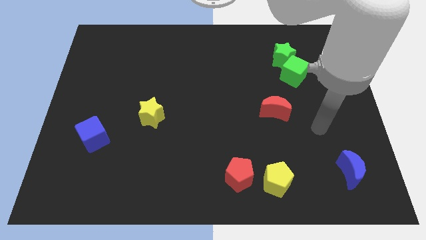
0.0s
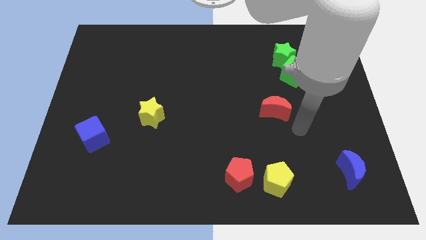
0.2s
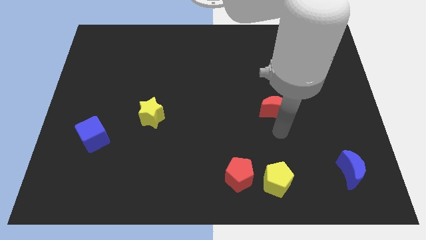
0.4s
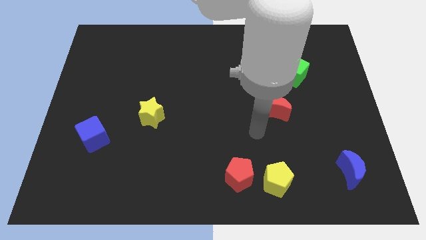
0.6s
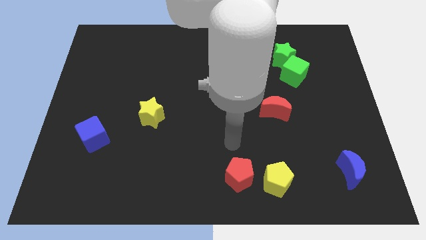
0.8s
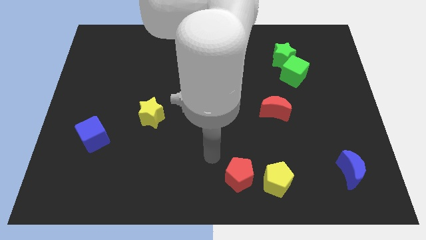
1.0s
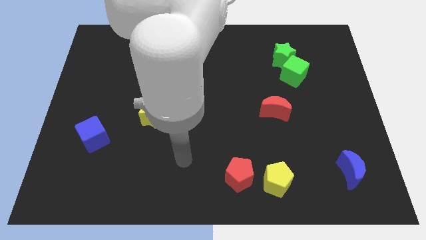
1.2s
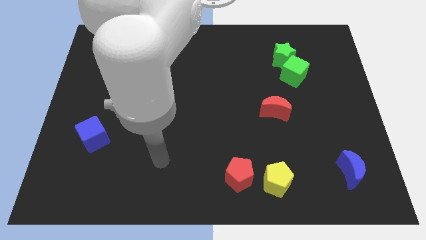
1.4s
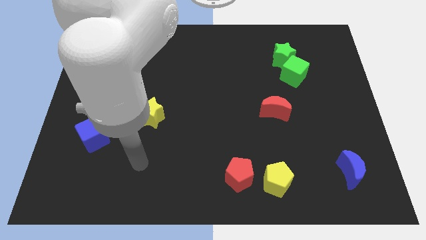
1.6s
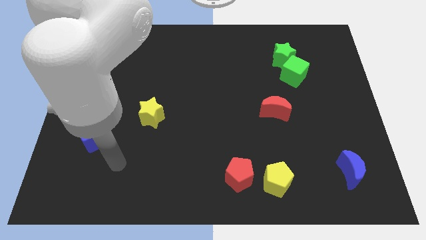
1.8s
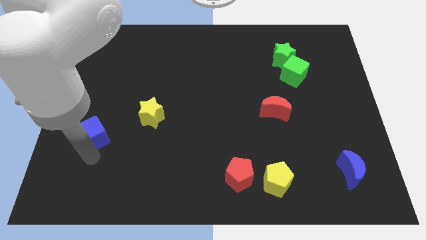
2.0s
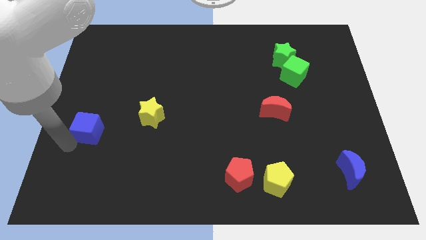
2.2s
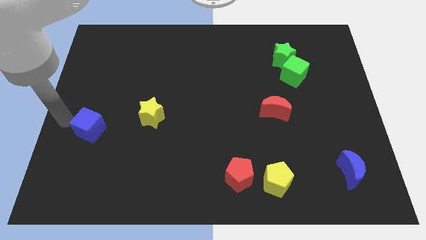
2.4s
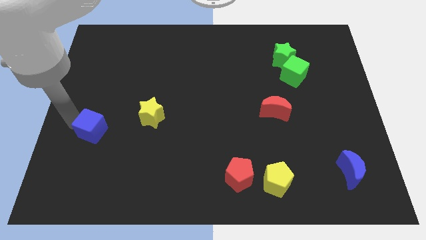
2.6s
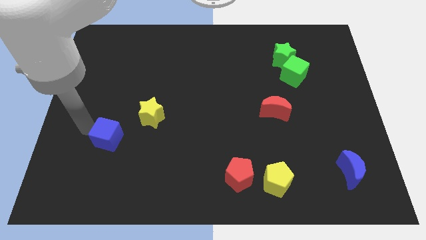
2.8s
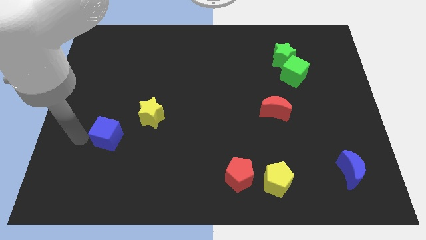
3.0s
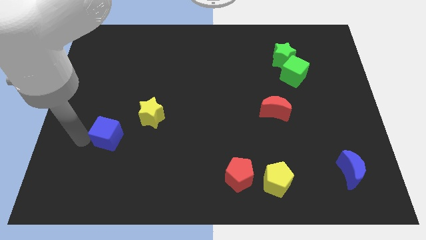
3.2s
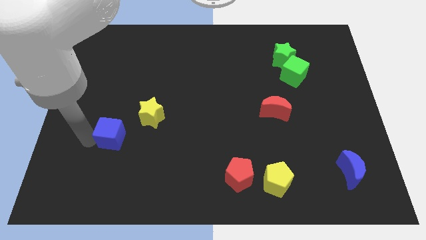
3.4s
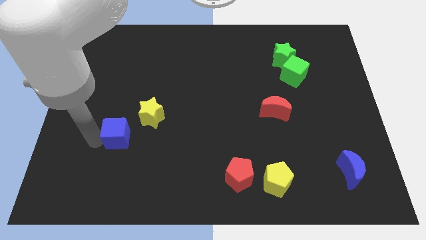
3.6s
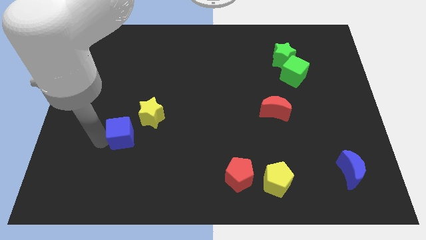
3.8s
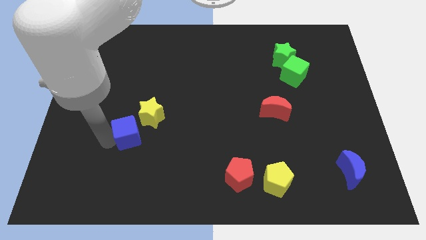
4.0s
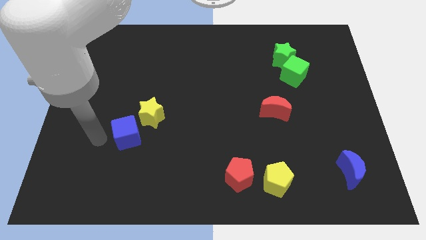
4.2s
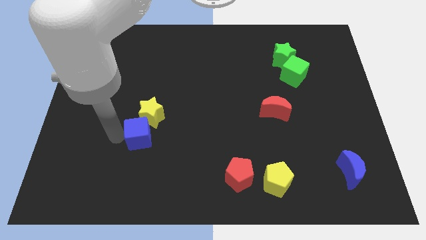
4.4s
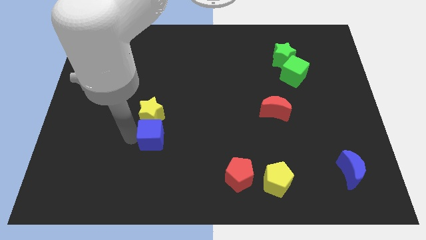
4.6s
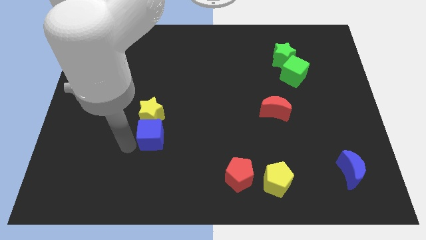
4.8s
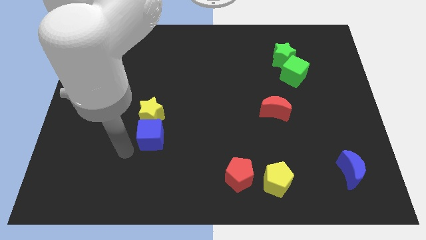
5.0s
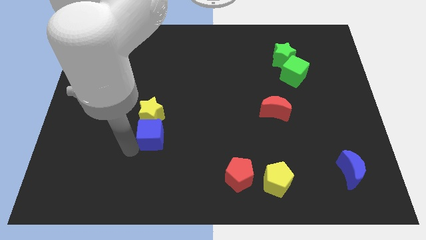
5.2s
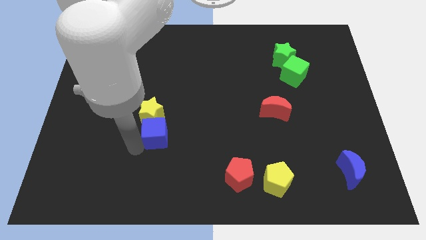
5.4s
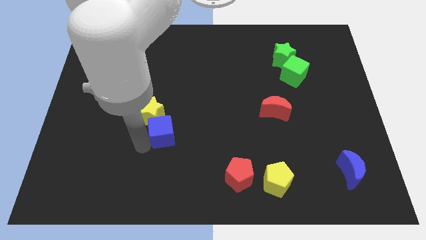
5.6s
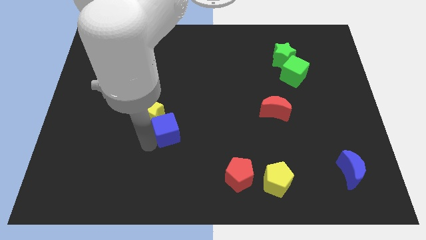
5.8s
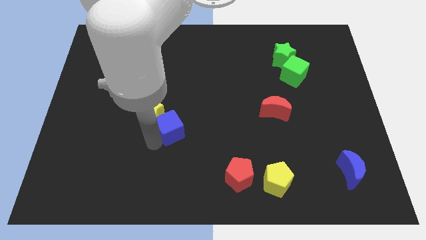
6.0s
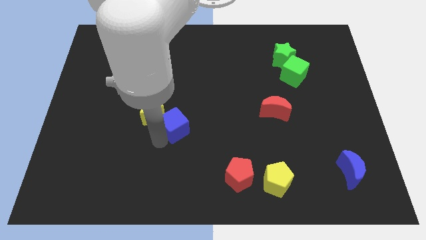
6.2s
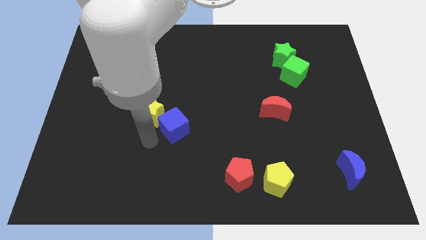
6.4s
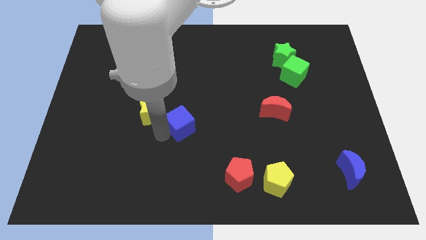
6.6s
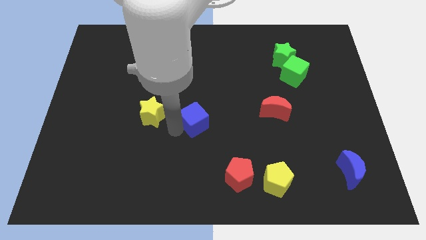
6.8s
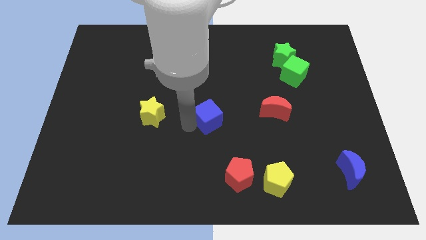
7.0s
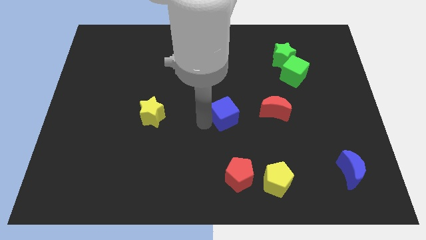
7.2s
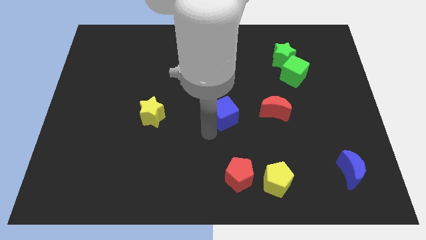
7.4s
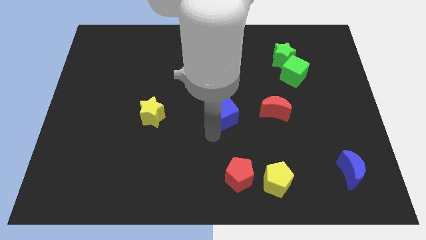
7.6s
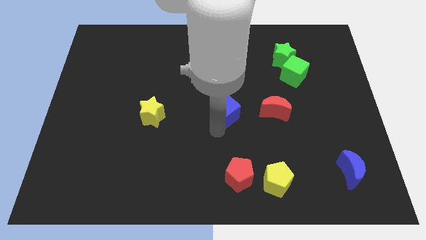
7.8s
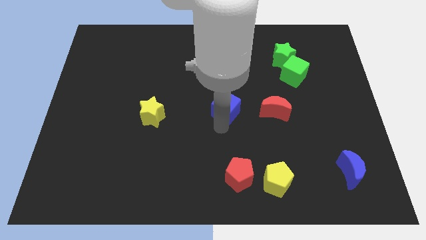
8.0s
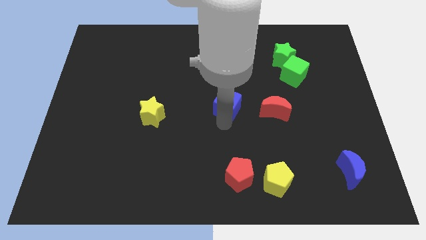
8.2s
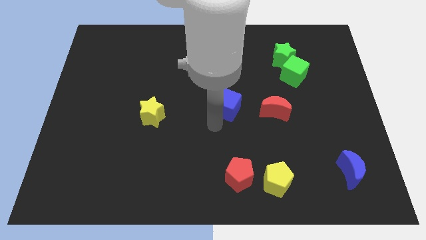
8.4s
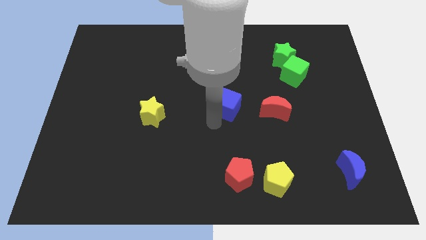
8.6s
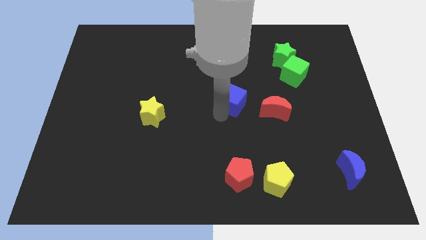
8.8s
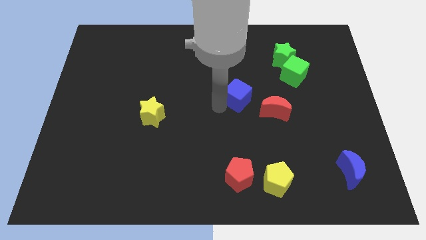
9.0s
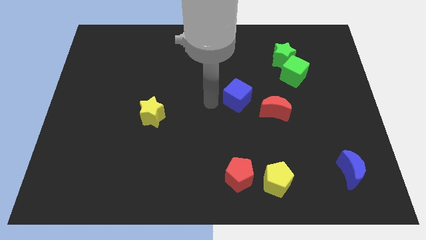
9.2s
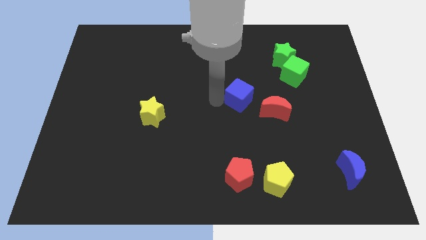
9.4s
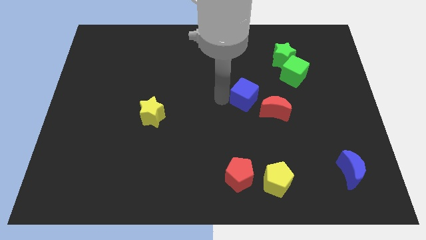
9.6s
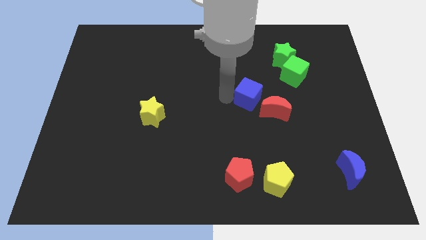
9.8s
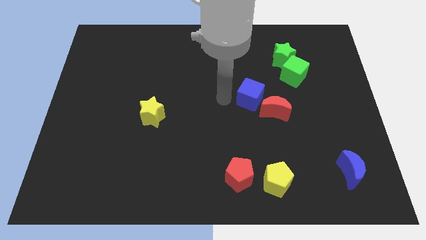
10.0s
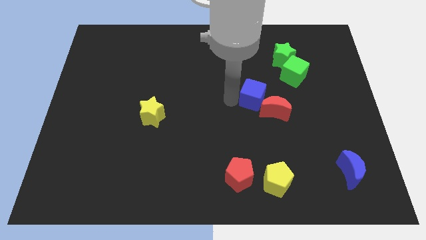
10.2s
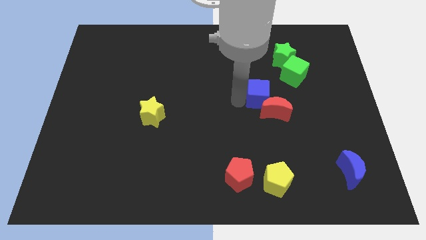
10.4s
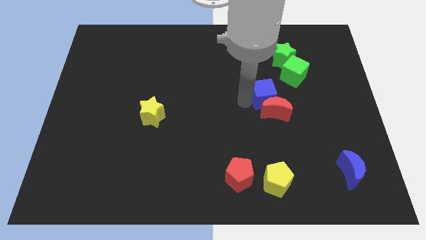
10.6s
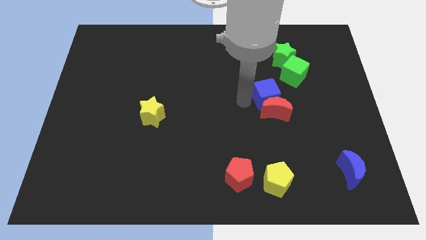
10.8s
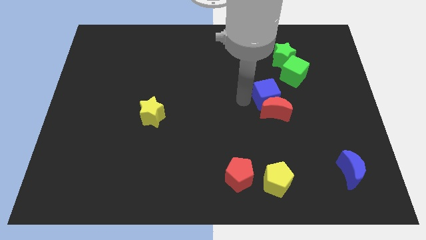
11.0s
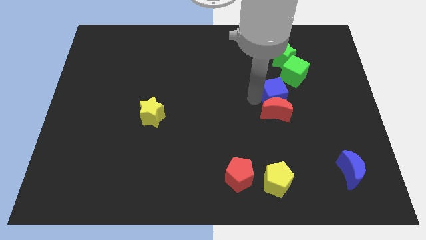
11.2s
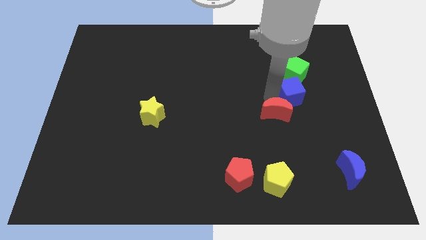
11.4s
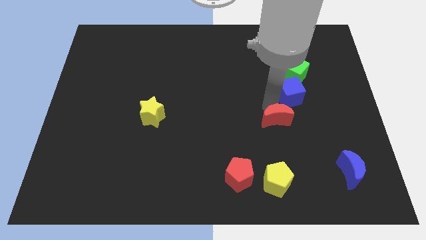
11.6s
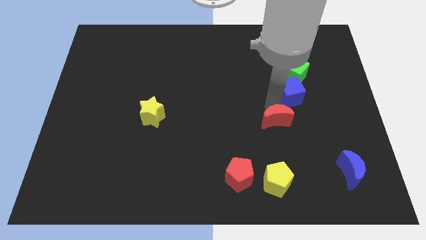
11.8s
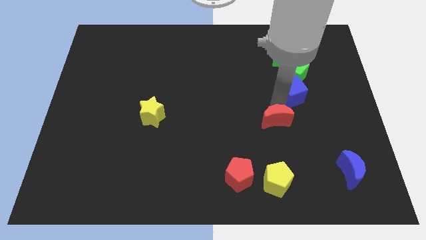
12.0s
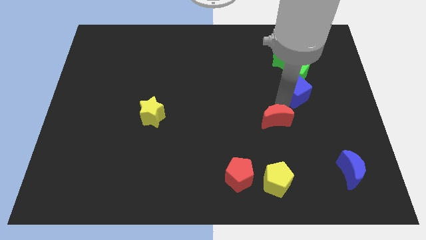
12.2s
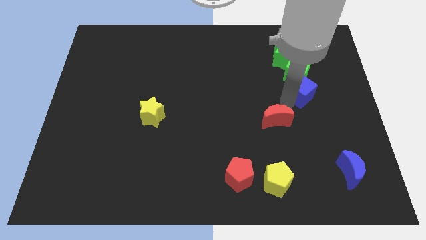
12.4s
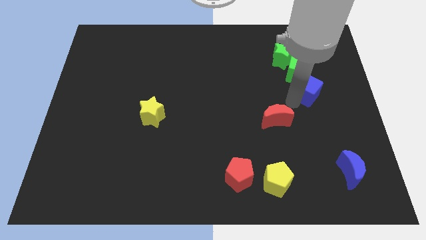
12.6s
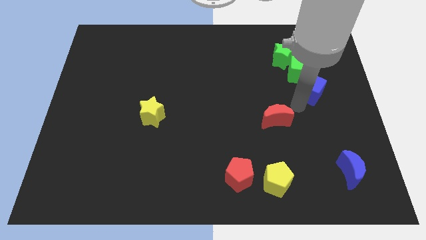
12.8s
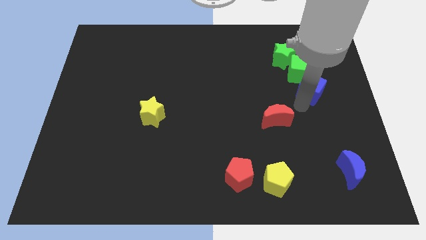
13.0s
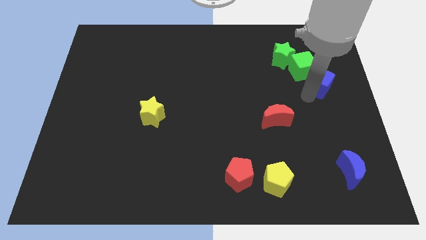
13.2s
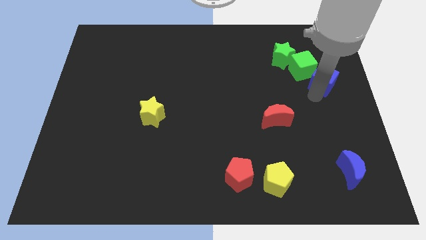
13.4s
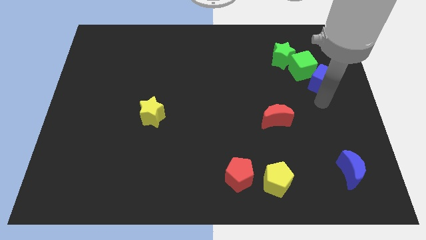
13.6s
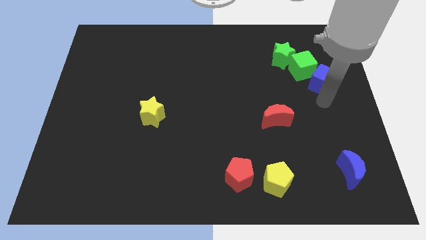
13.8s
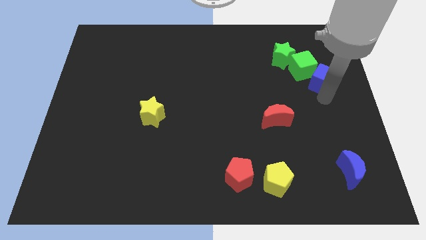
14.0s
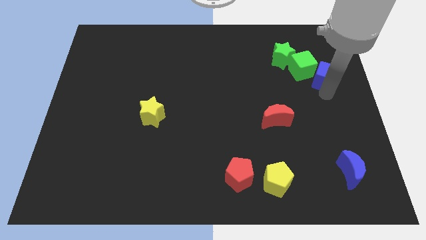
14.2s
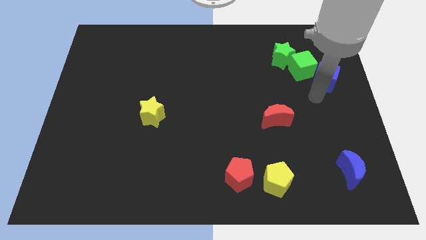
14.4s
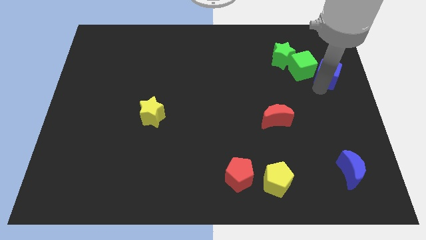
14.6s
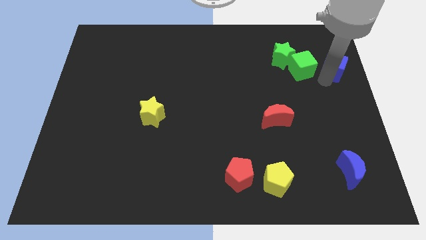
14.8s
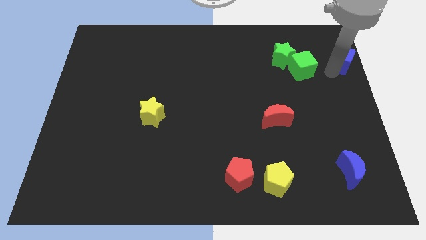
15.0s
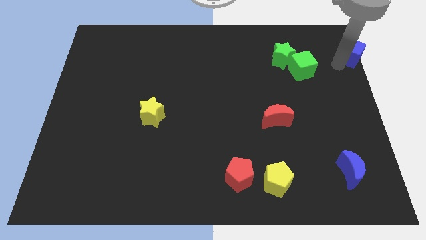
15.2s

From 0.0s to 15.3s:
slide the blue cube to the top right corner

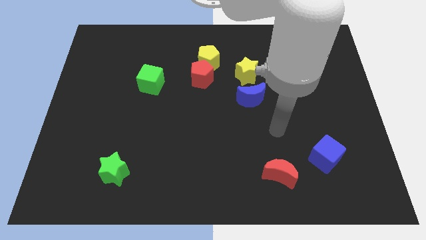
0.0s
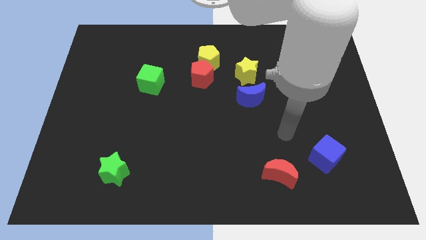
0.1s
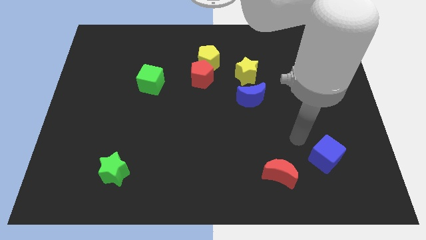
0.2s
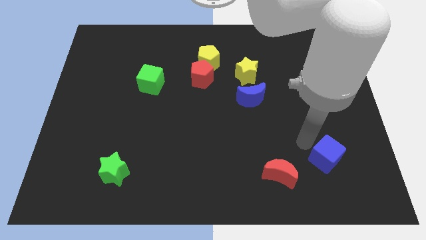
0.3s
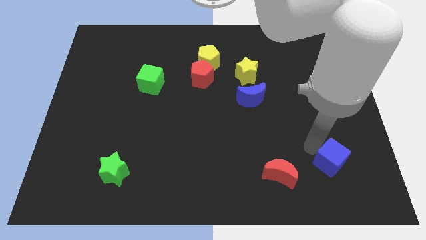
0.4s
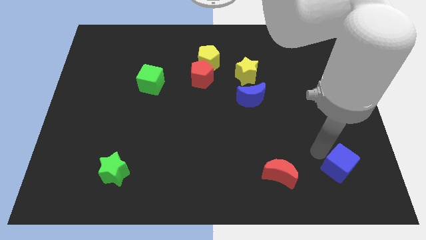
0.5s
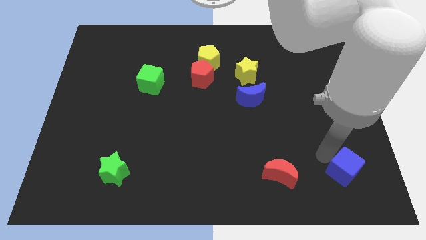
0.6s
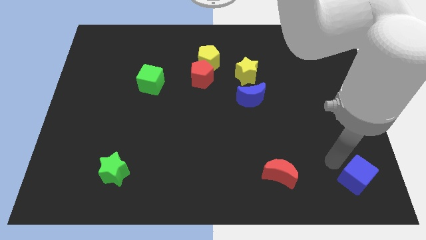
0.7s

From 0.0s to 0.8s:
slide the blue cube to the lower right corner
